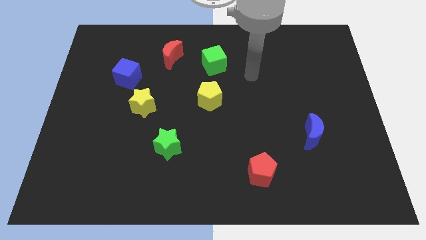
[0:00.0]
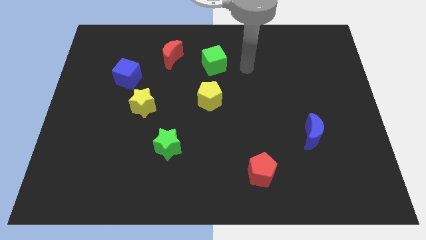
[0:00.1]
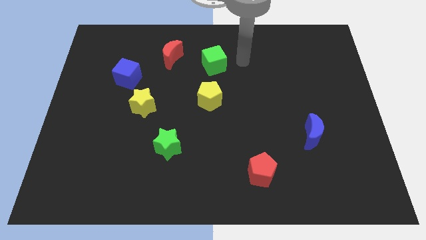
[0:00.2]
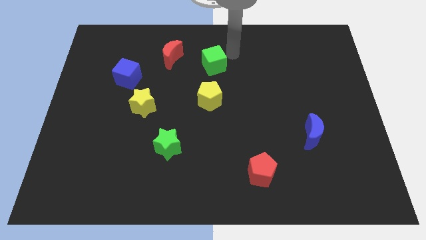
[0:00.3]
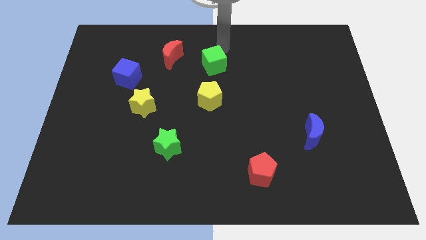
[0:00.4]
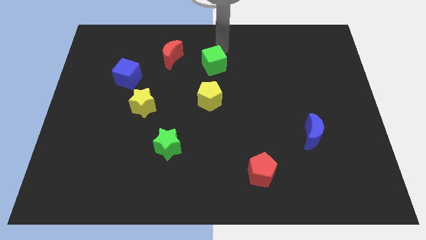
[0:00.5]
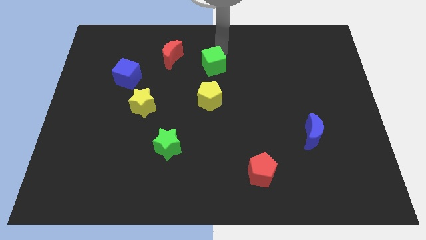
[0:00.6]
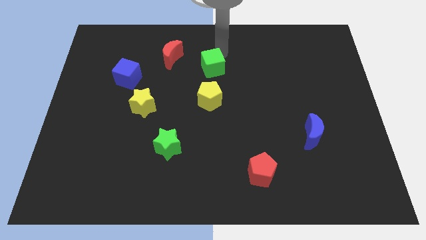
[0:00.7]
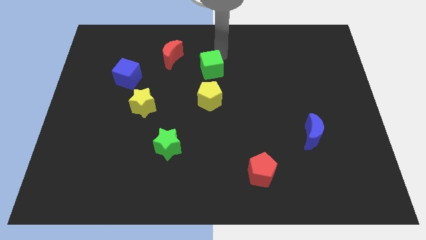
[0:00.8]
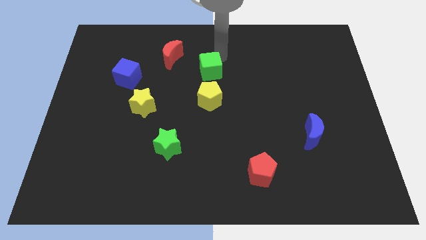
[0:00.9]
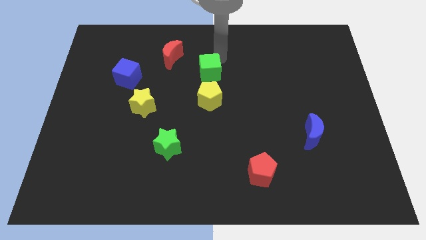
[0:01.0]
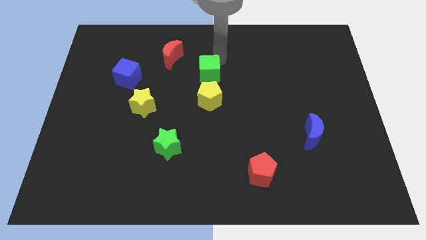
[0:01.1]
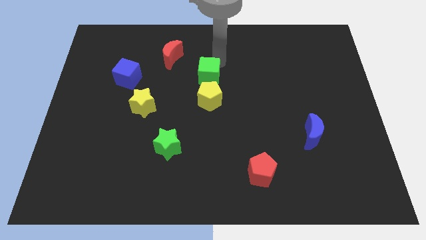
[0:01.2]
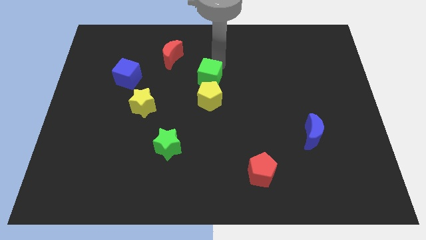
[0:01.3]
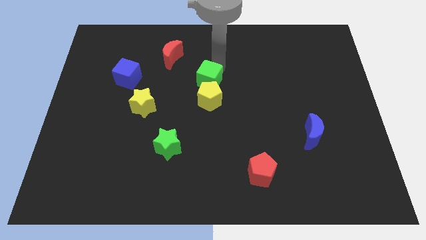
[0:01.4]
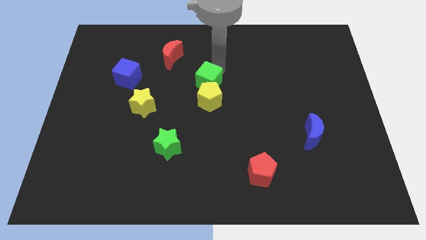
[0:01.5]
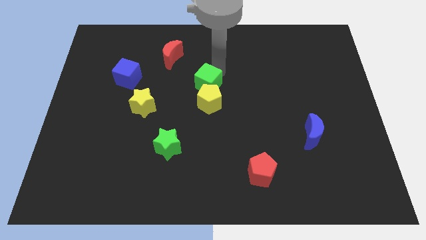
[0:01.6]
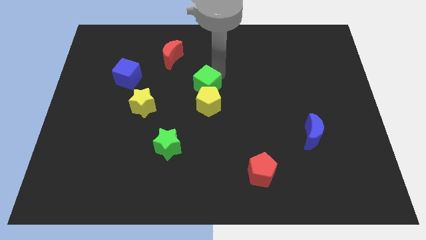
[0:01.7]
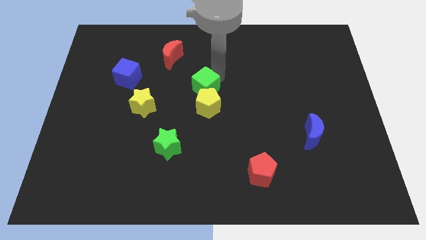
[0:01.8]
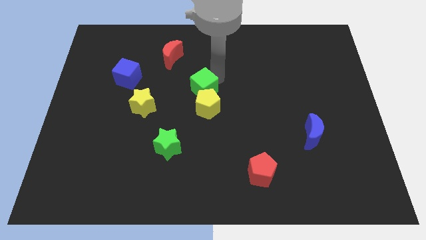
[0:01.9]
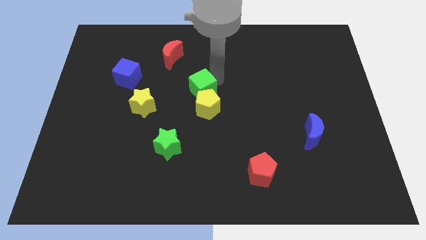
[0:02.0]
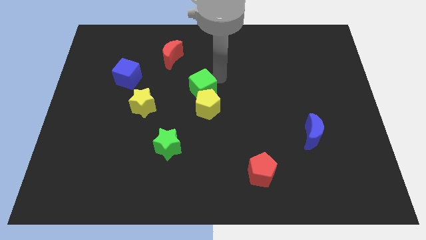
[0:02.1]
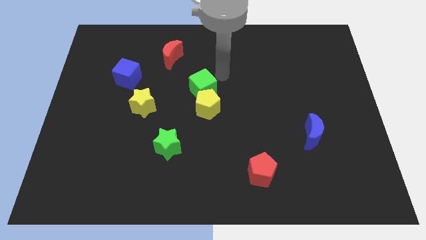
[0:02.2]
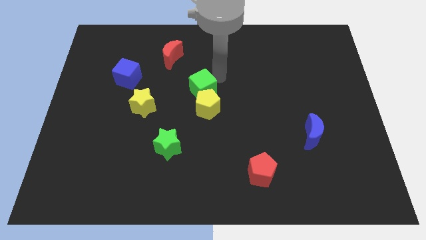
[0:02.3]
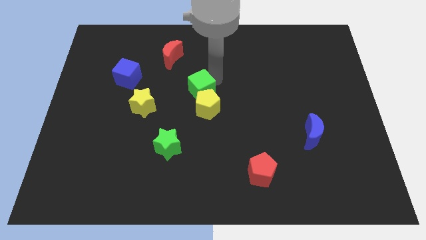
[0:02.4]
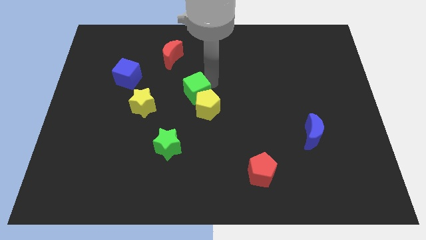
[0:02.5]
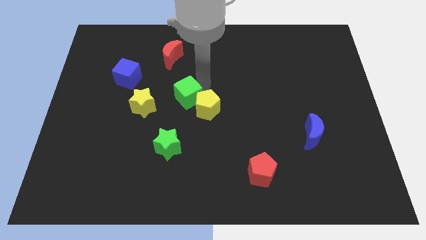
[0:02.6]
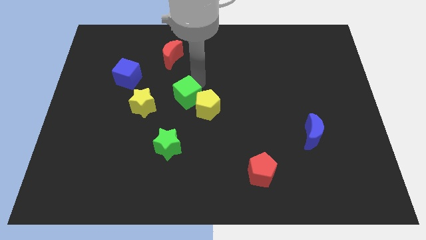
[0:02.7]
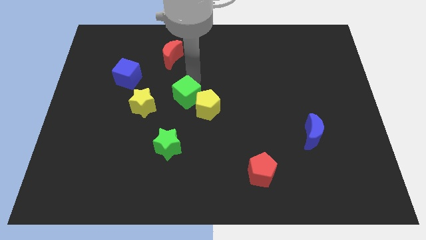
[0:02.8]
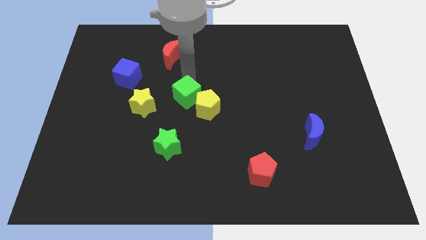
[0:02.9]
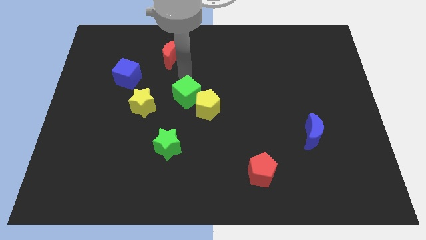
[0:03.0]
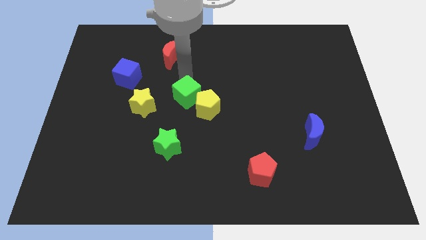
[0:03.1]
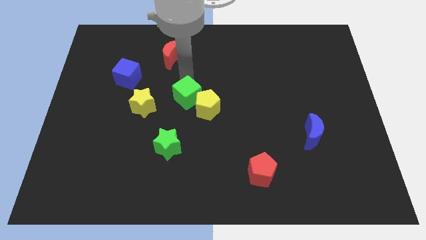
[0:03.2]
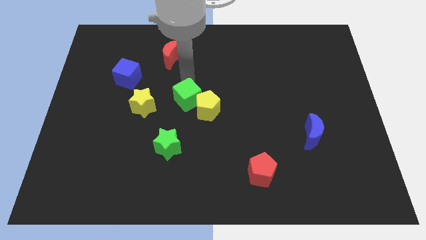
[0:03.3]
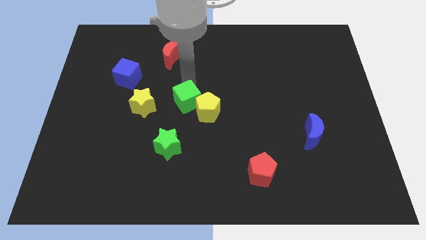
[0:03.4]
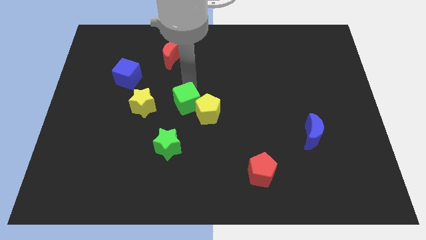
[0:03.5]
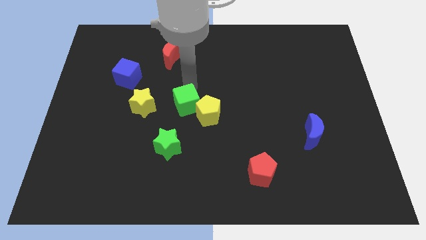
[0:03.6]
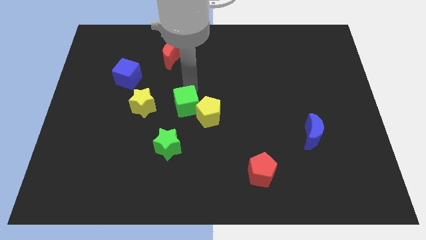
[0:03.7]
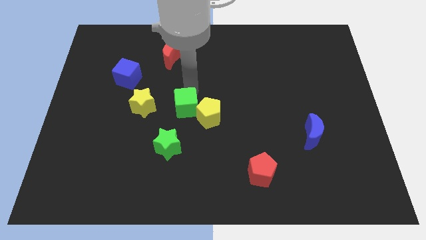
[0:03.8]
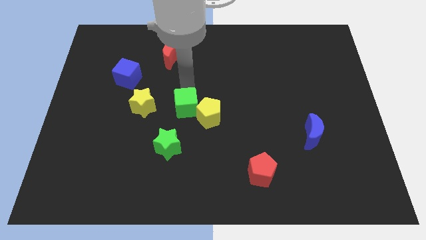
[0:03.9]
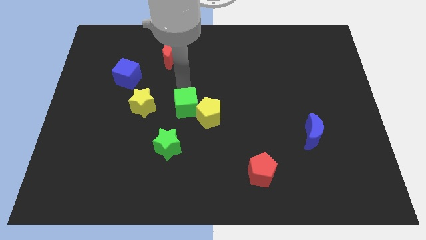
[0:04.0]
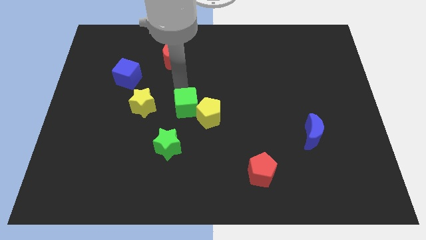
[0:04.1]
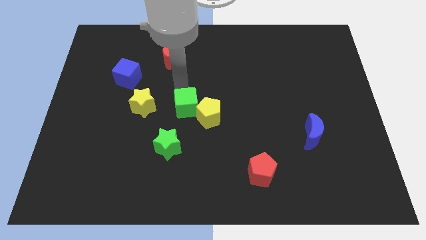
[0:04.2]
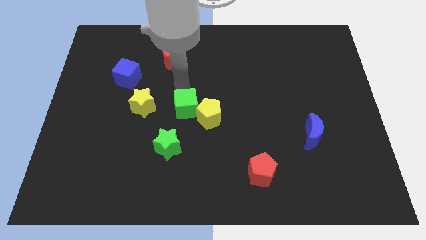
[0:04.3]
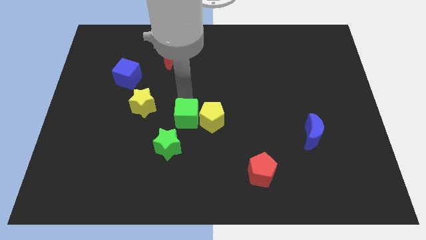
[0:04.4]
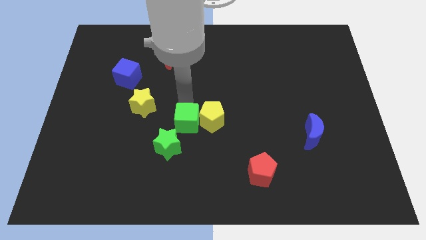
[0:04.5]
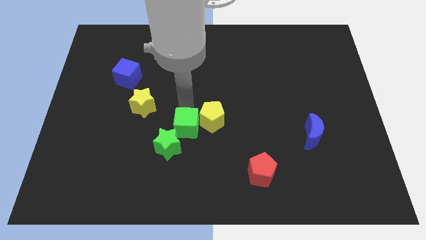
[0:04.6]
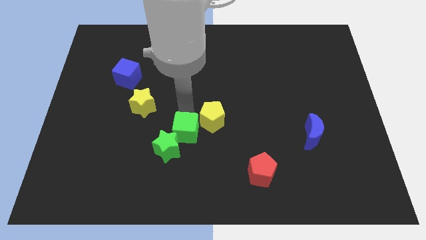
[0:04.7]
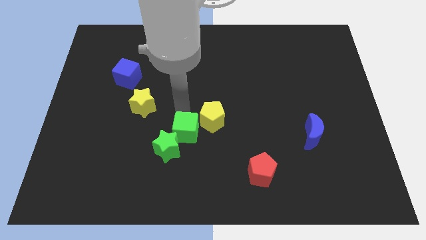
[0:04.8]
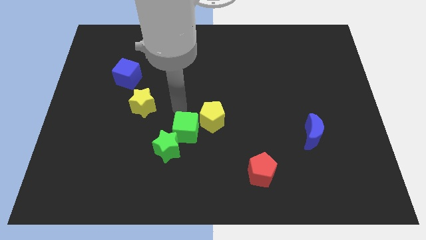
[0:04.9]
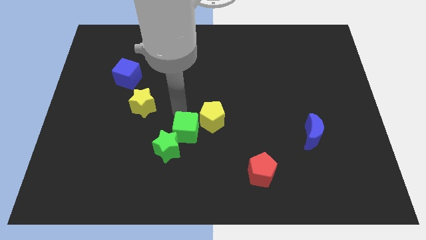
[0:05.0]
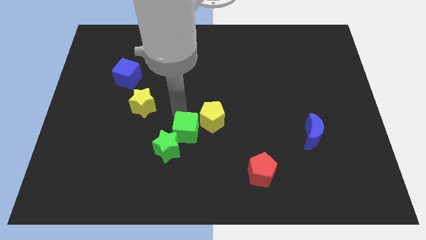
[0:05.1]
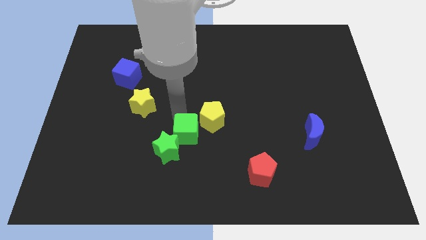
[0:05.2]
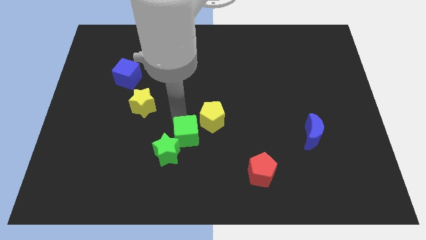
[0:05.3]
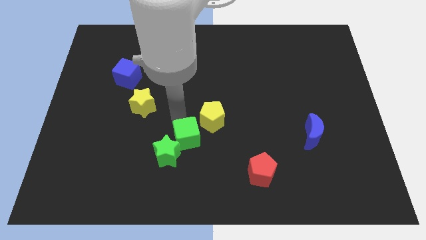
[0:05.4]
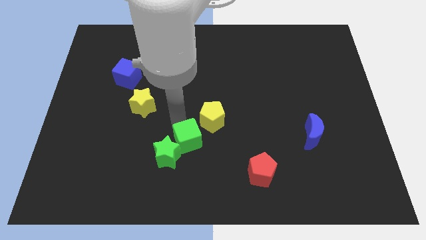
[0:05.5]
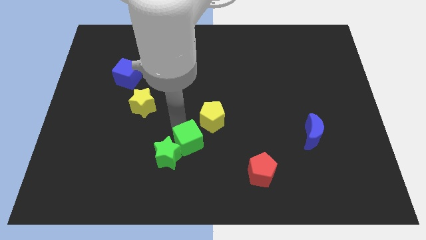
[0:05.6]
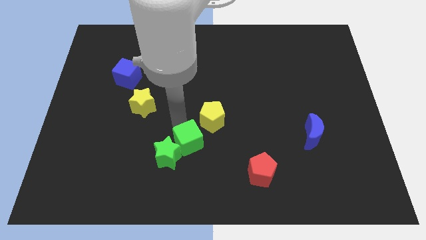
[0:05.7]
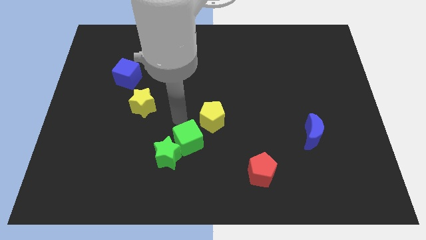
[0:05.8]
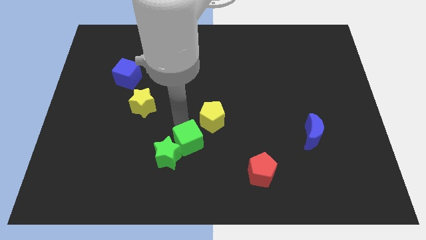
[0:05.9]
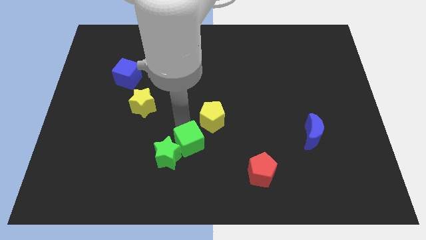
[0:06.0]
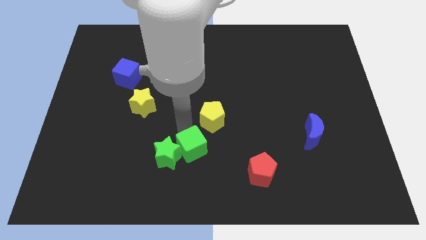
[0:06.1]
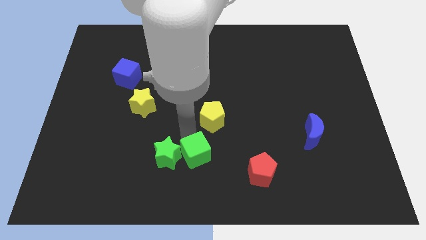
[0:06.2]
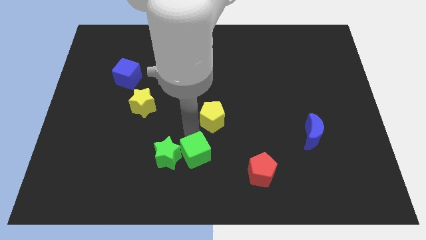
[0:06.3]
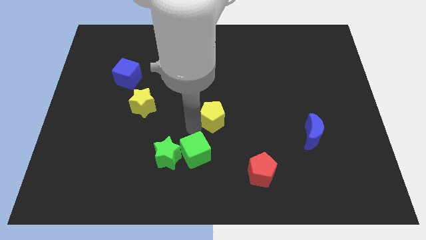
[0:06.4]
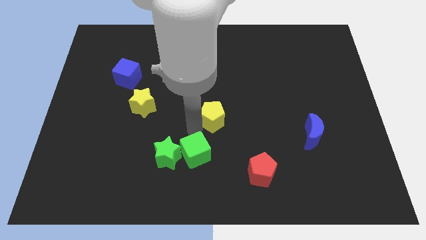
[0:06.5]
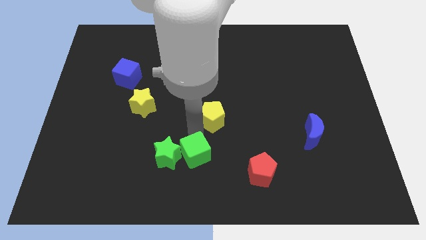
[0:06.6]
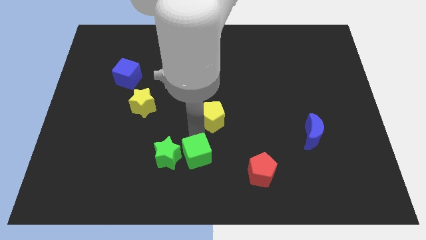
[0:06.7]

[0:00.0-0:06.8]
put the green cube to the bottom
